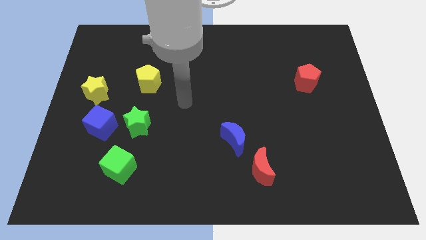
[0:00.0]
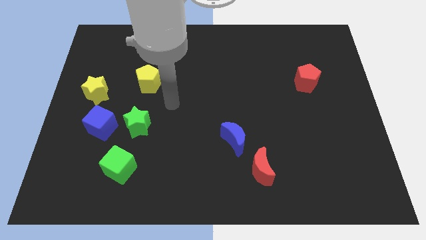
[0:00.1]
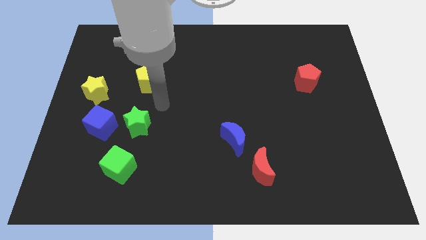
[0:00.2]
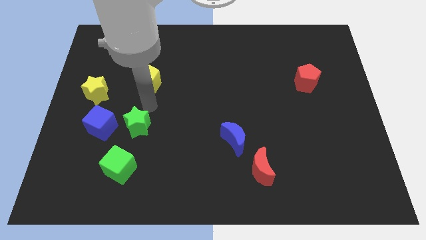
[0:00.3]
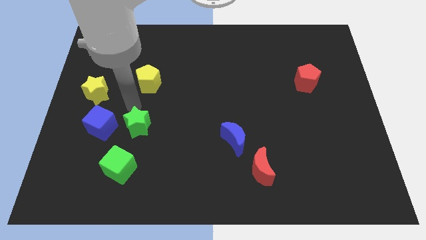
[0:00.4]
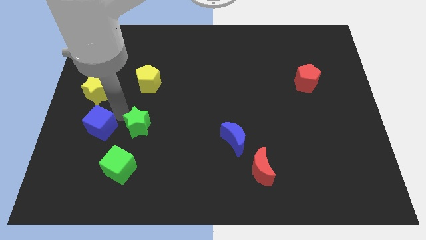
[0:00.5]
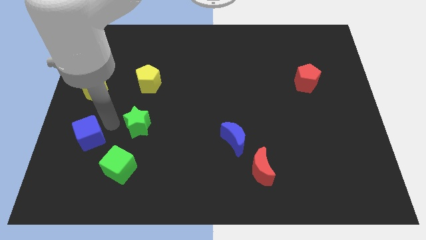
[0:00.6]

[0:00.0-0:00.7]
move the green star away from the blue cube

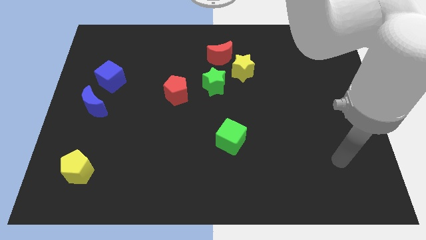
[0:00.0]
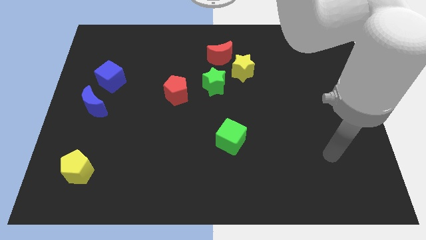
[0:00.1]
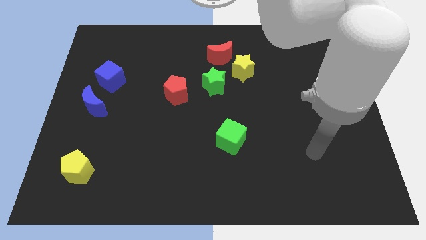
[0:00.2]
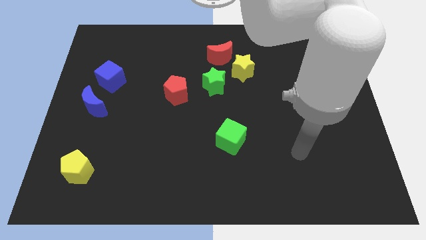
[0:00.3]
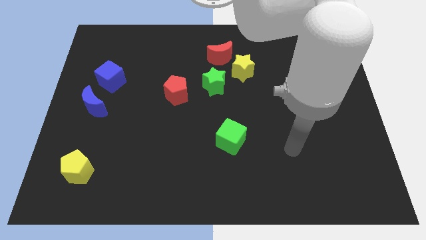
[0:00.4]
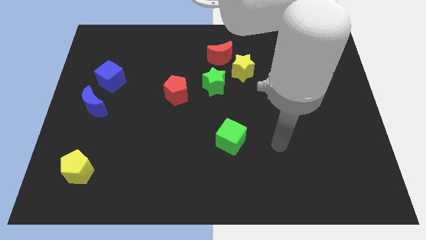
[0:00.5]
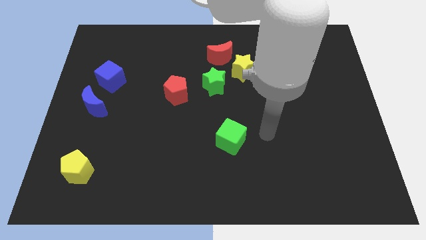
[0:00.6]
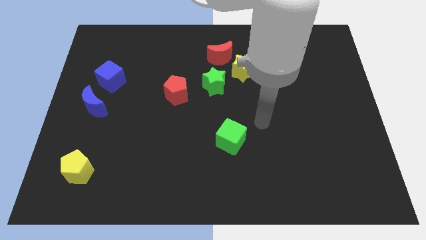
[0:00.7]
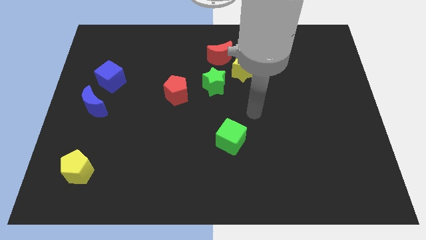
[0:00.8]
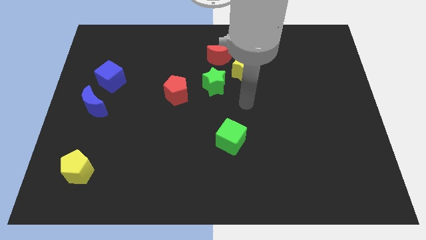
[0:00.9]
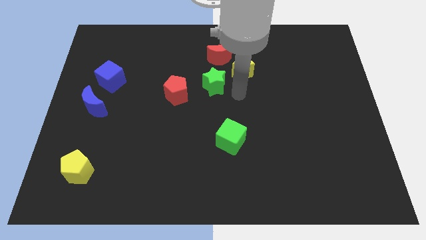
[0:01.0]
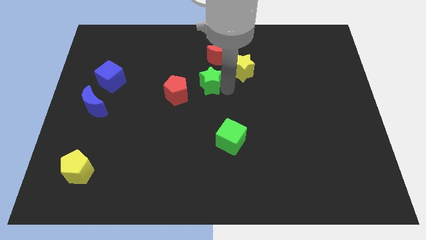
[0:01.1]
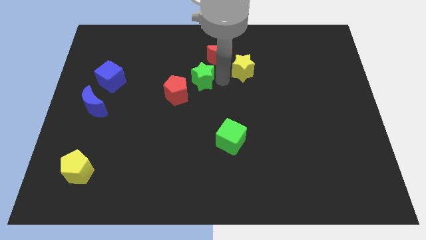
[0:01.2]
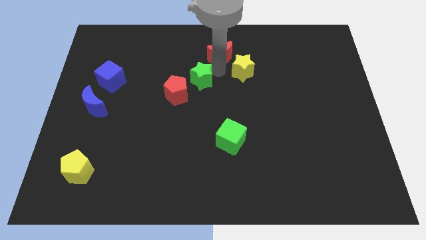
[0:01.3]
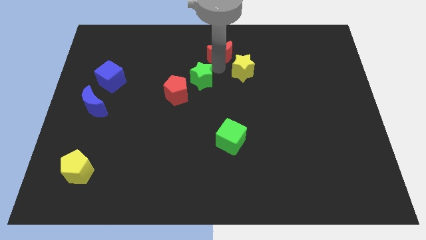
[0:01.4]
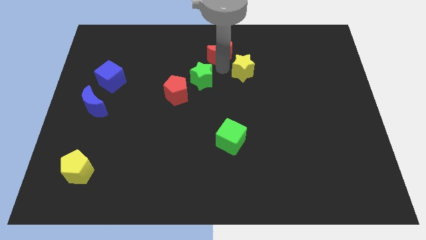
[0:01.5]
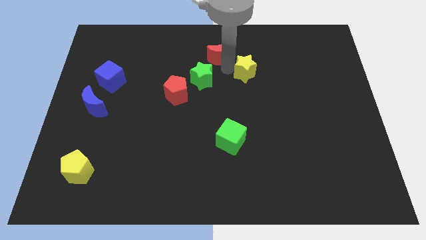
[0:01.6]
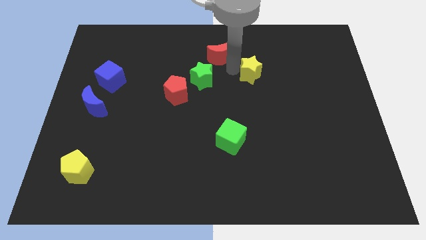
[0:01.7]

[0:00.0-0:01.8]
move the yellow star away from the red moon and green star

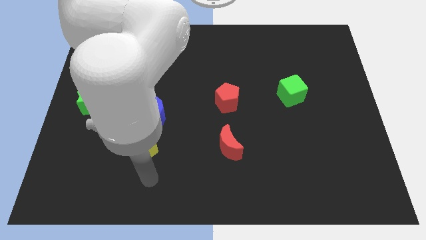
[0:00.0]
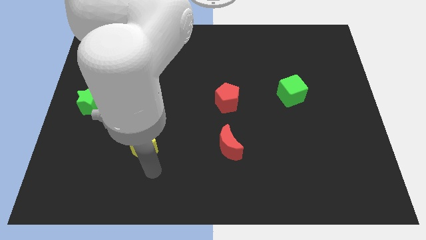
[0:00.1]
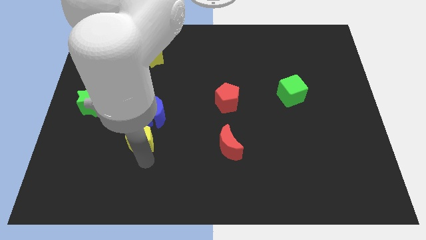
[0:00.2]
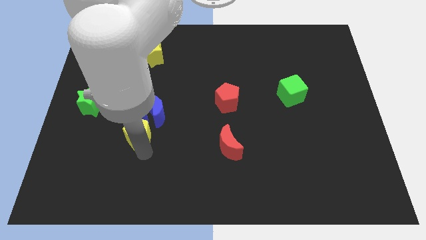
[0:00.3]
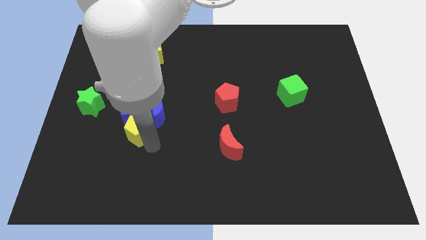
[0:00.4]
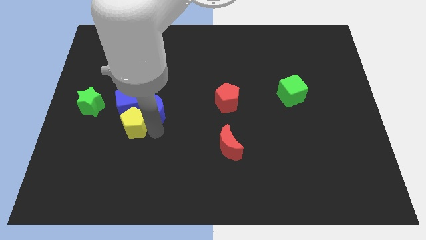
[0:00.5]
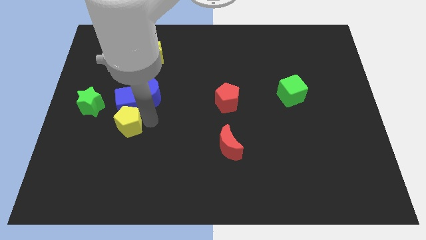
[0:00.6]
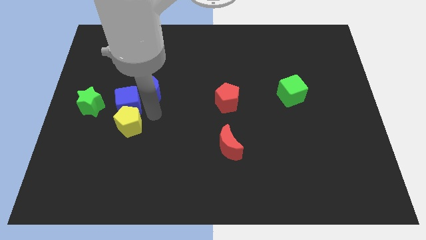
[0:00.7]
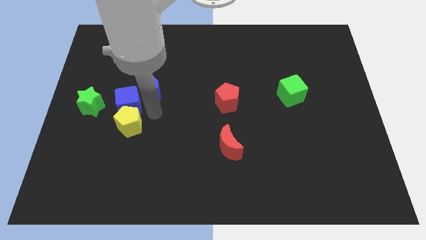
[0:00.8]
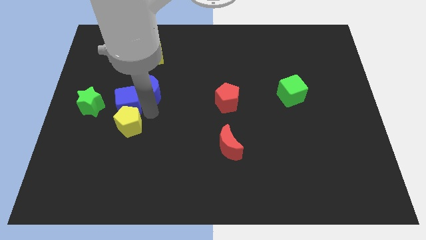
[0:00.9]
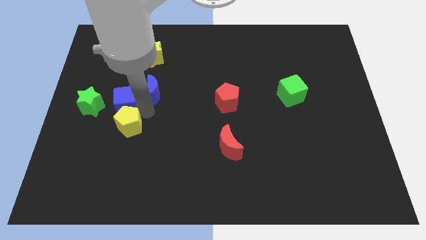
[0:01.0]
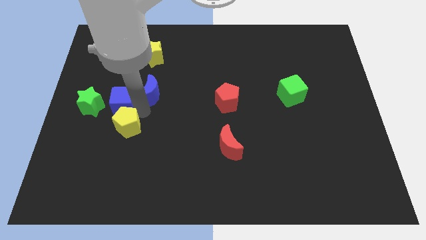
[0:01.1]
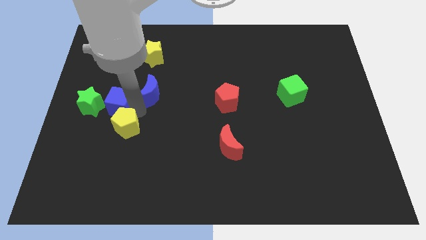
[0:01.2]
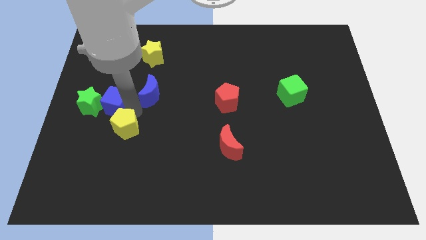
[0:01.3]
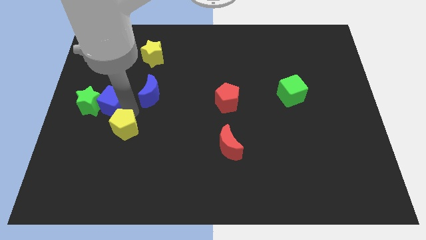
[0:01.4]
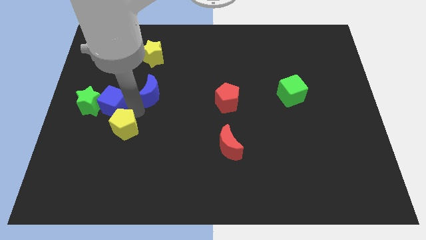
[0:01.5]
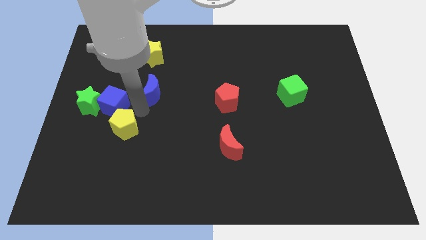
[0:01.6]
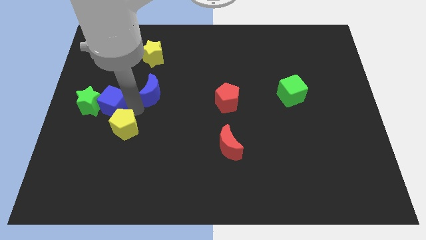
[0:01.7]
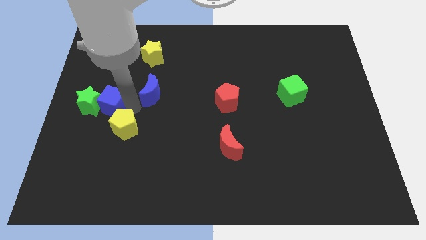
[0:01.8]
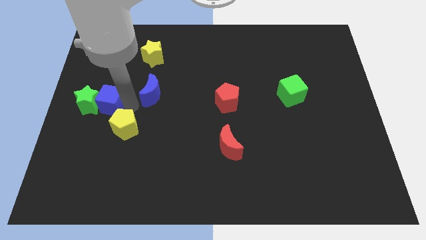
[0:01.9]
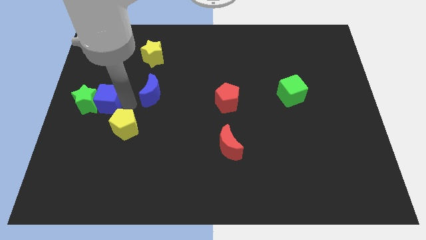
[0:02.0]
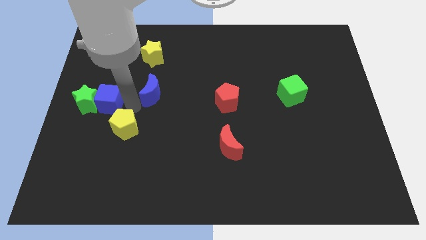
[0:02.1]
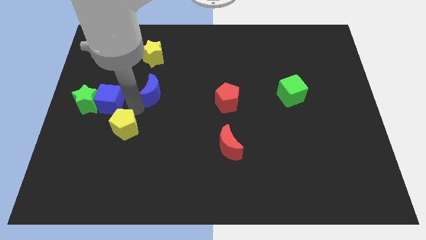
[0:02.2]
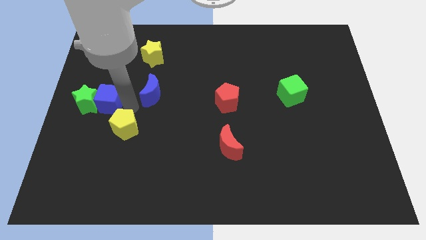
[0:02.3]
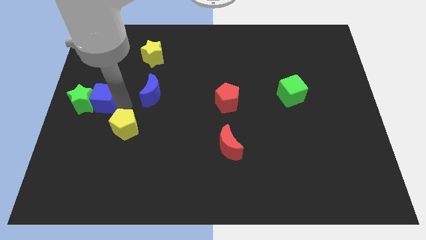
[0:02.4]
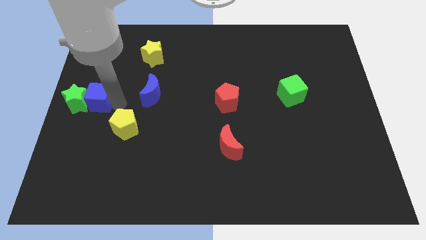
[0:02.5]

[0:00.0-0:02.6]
separate the blue cube from the blue moon and yellow pentagon

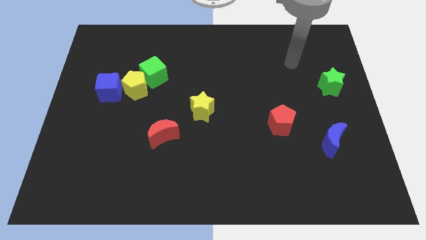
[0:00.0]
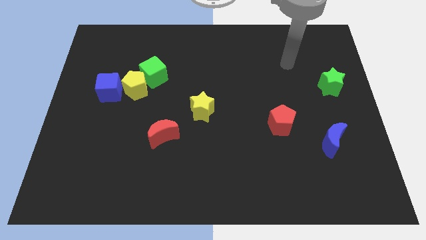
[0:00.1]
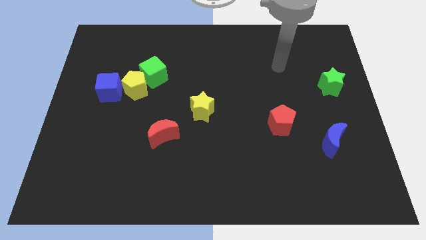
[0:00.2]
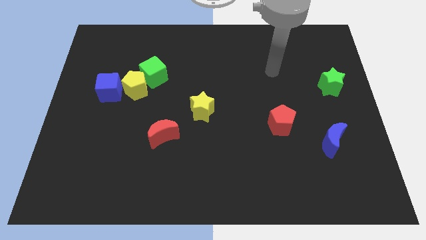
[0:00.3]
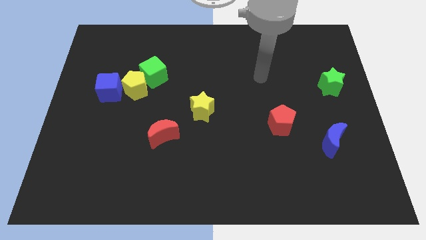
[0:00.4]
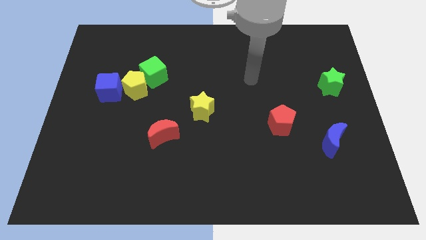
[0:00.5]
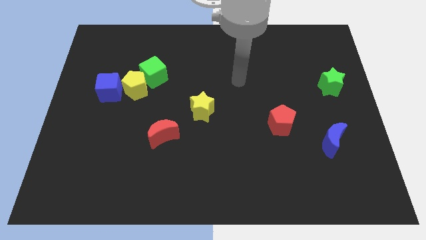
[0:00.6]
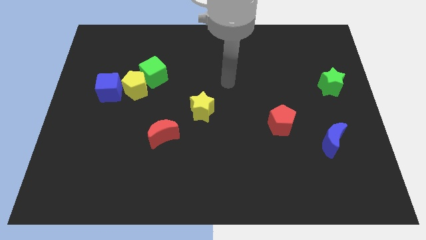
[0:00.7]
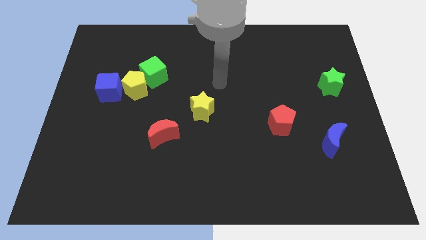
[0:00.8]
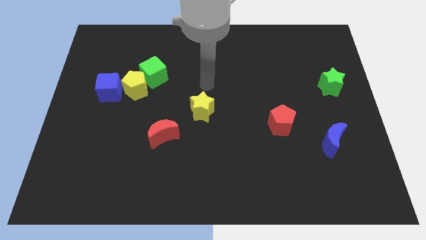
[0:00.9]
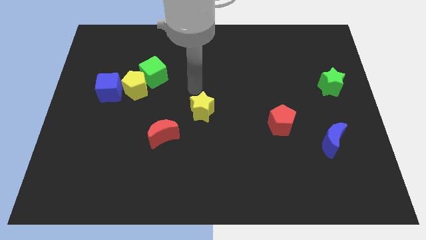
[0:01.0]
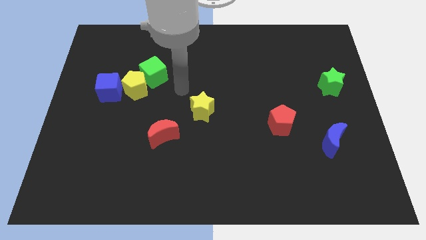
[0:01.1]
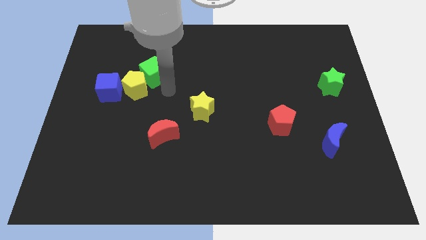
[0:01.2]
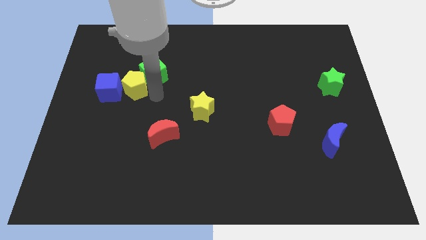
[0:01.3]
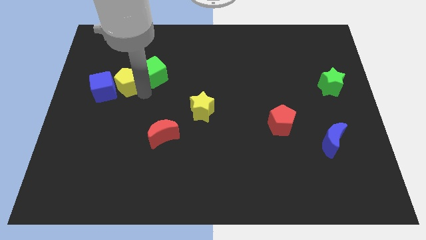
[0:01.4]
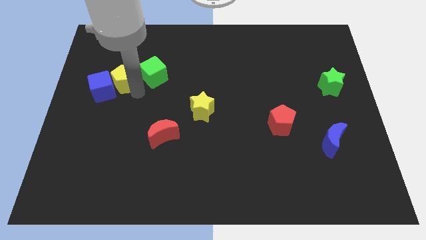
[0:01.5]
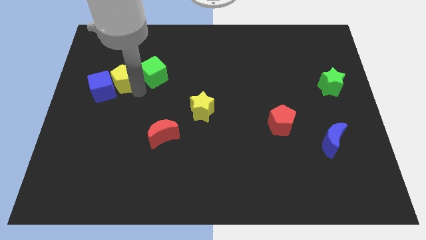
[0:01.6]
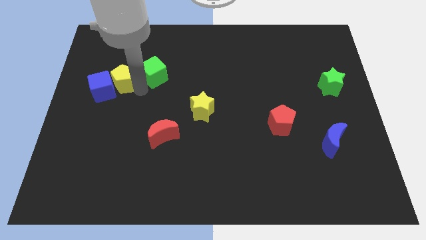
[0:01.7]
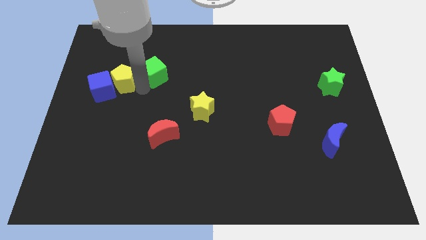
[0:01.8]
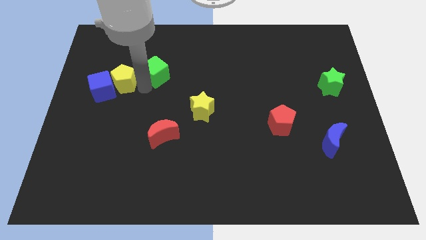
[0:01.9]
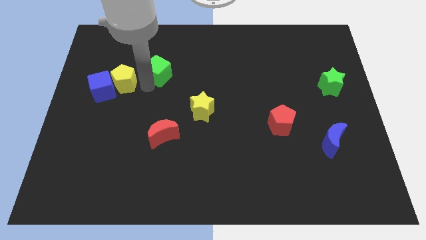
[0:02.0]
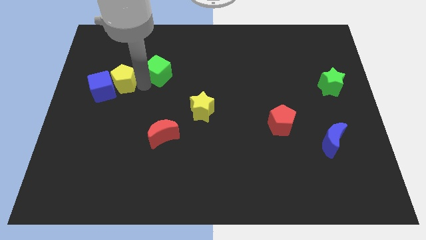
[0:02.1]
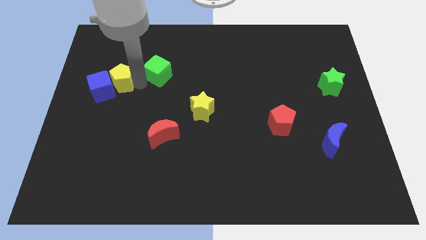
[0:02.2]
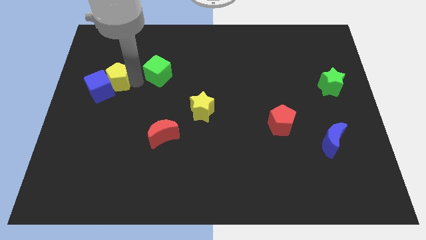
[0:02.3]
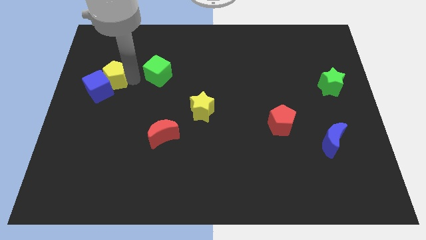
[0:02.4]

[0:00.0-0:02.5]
pull the green cube apart from the yellow pentagon

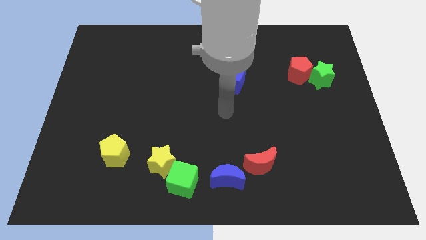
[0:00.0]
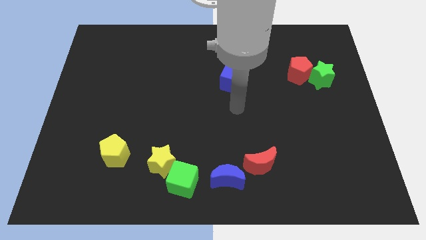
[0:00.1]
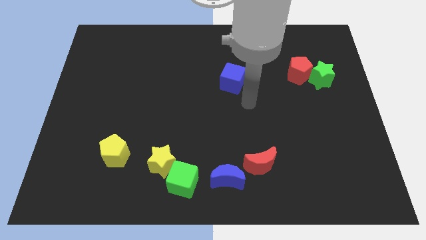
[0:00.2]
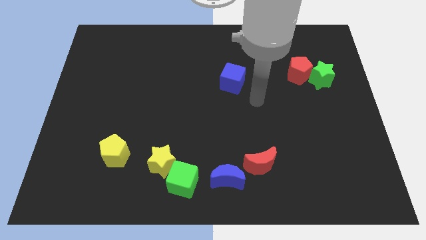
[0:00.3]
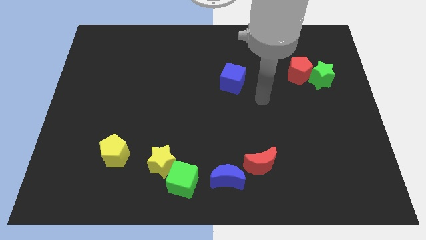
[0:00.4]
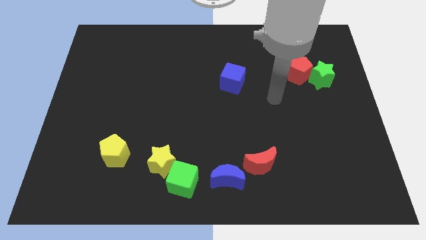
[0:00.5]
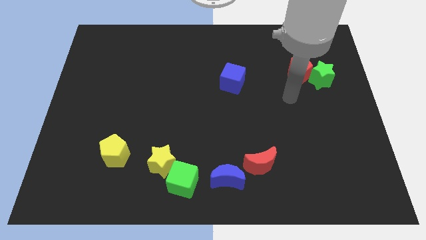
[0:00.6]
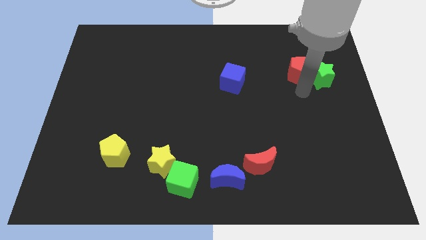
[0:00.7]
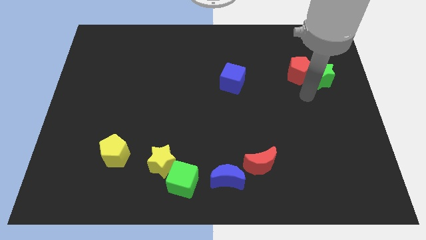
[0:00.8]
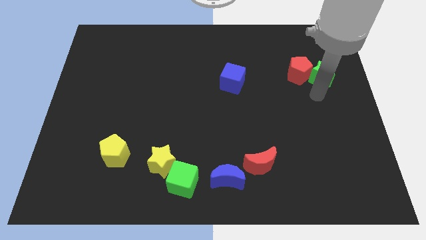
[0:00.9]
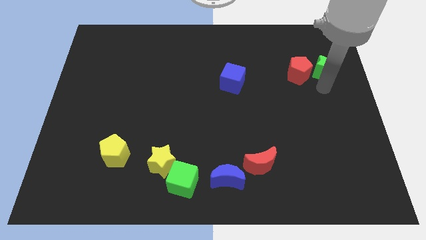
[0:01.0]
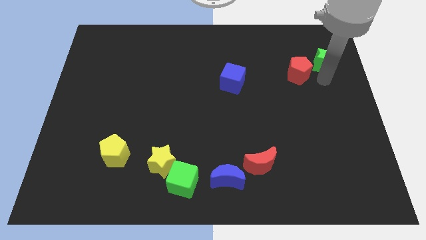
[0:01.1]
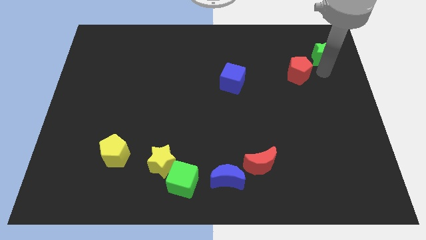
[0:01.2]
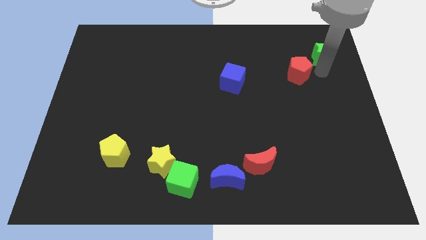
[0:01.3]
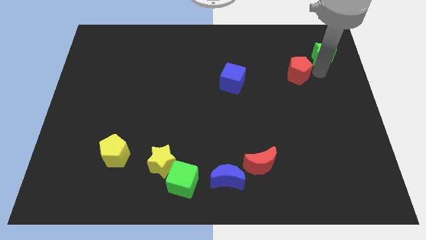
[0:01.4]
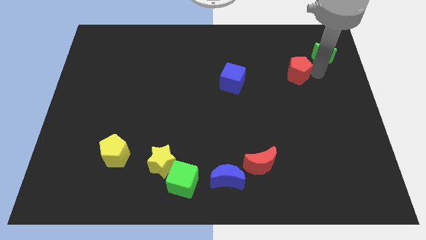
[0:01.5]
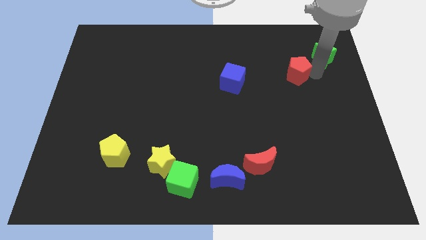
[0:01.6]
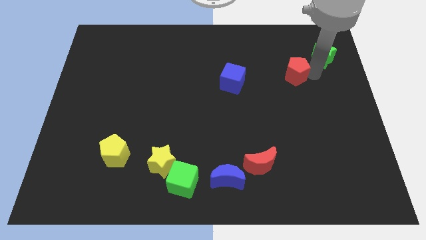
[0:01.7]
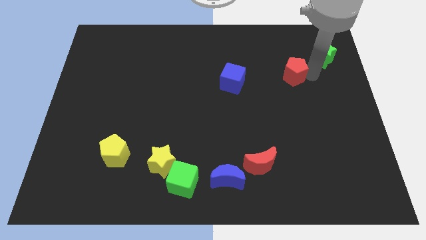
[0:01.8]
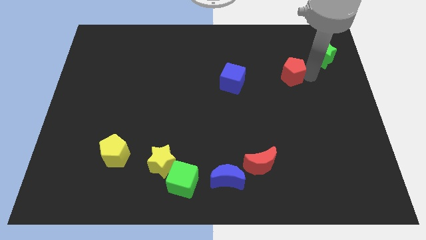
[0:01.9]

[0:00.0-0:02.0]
pull the red pentagon apart from the green star
